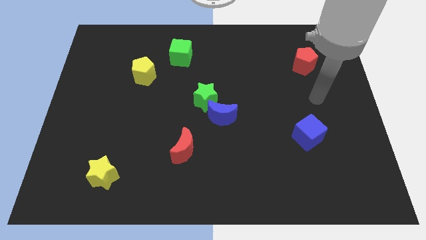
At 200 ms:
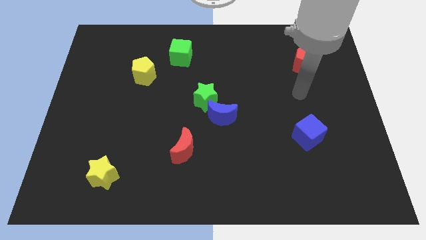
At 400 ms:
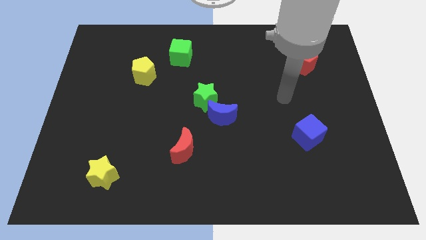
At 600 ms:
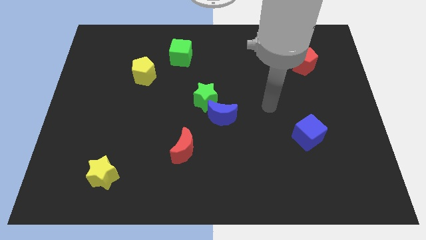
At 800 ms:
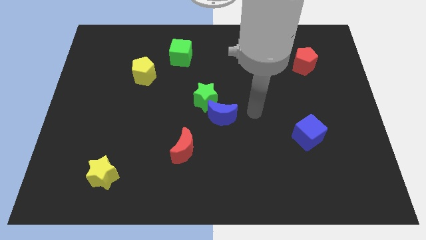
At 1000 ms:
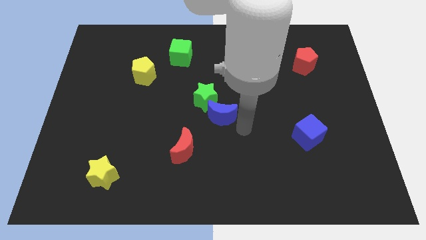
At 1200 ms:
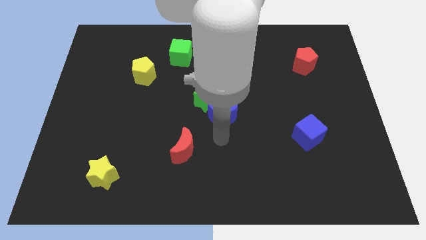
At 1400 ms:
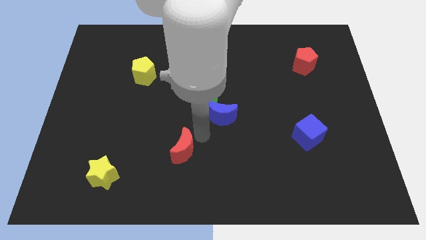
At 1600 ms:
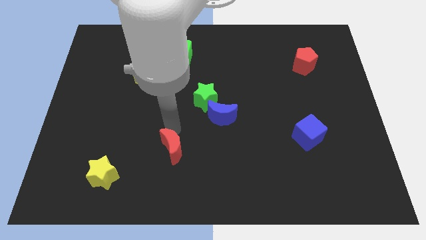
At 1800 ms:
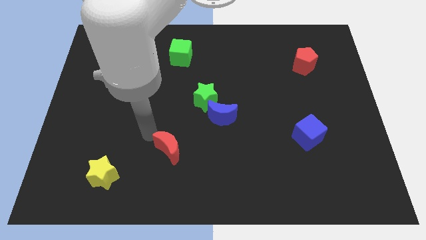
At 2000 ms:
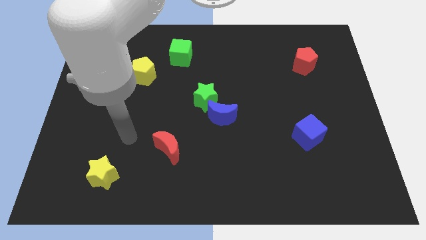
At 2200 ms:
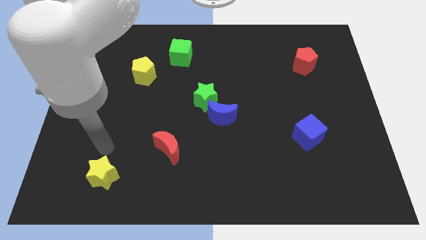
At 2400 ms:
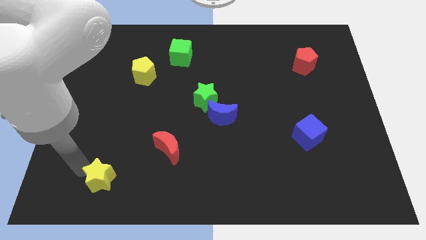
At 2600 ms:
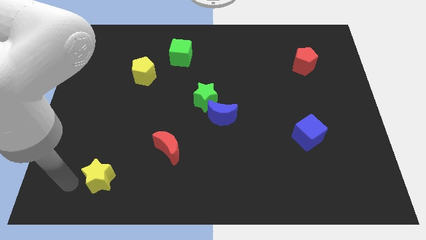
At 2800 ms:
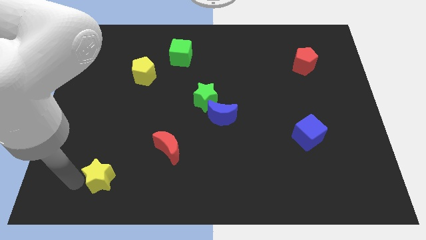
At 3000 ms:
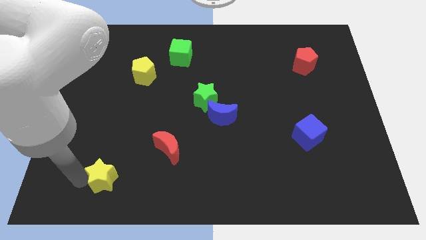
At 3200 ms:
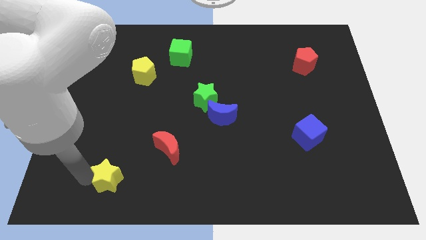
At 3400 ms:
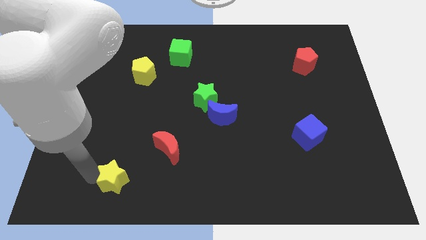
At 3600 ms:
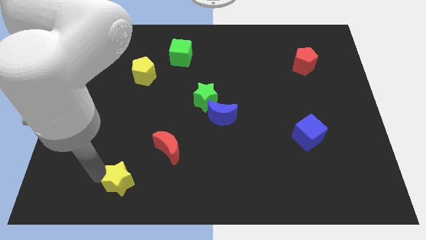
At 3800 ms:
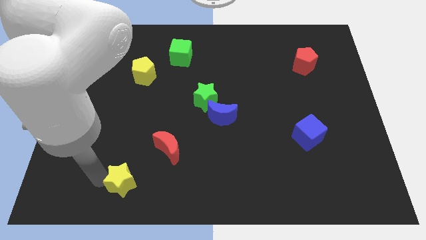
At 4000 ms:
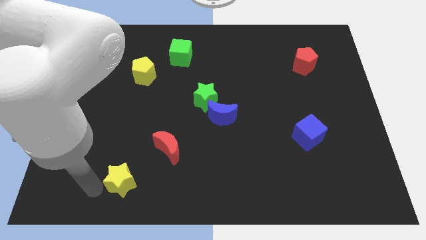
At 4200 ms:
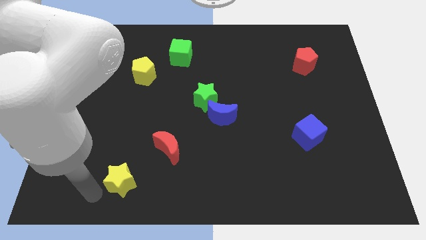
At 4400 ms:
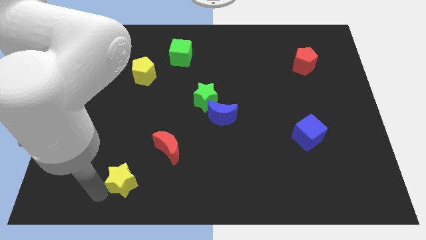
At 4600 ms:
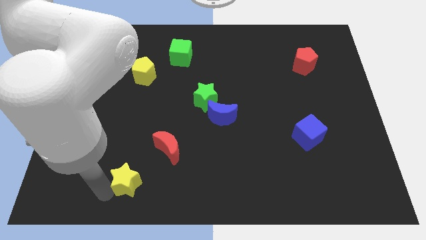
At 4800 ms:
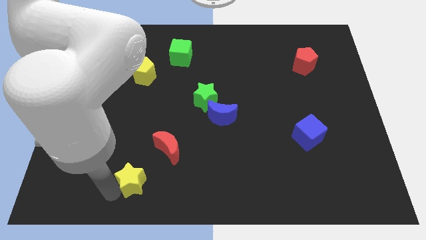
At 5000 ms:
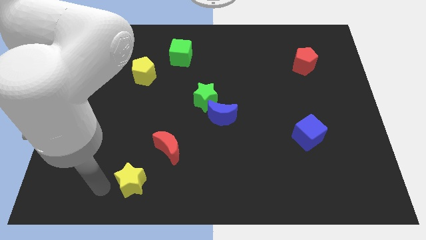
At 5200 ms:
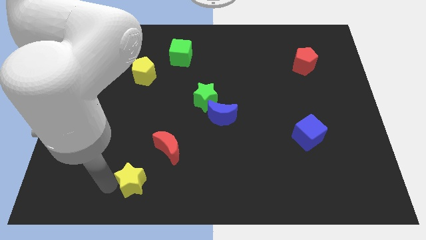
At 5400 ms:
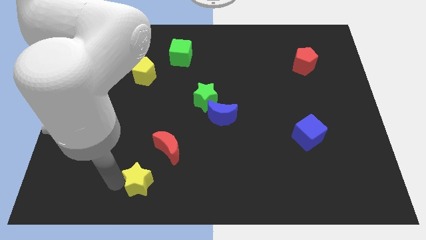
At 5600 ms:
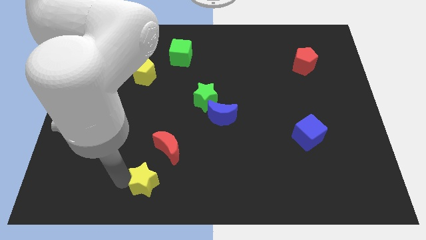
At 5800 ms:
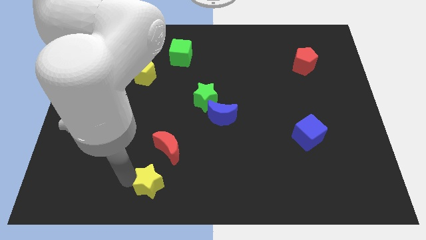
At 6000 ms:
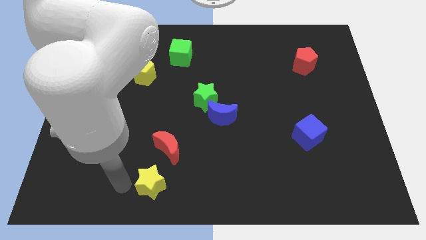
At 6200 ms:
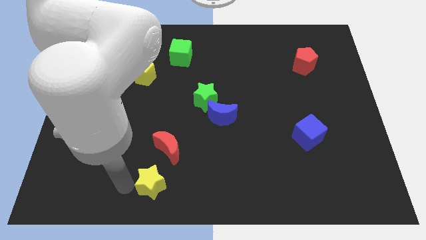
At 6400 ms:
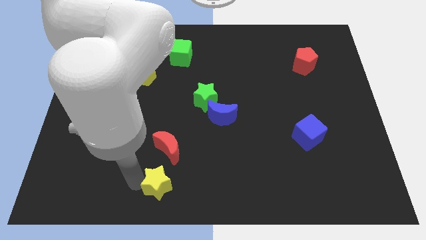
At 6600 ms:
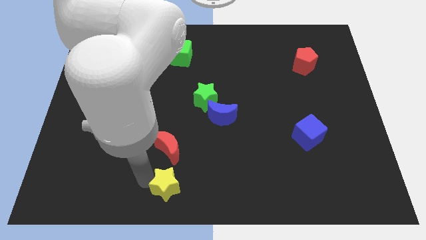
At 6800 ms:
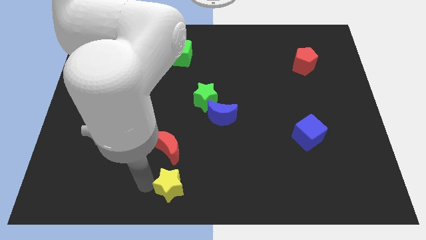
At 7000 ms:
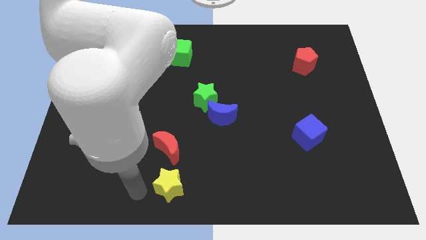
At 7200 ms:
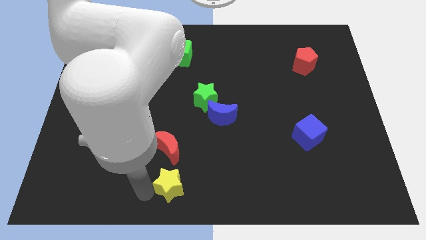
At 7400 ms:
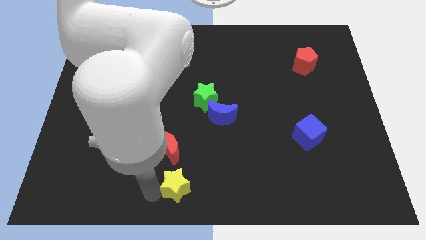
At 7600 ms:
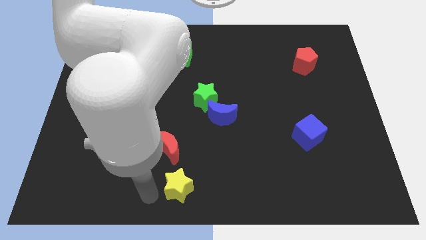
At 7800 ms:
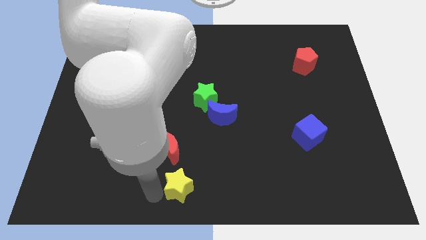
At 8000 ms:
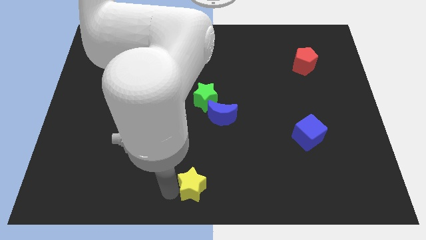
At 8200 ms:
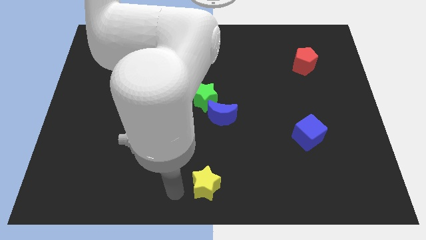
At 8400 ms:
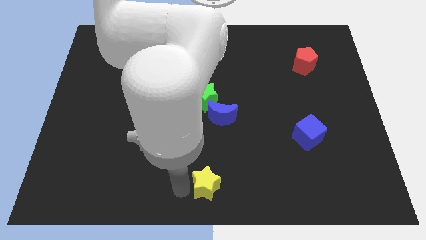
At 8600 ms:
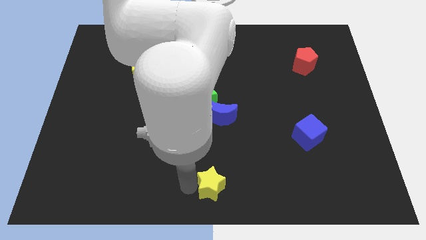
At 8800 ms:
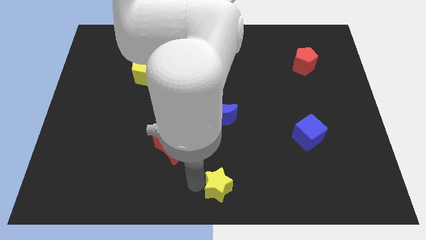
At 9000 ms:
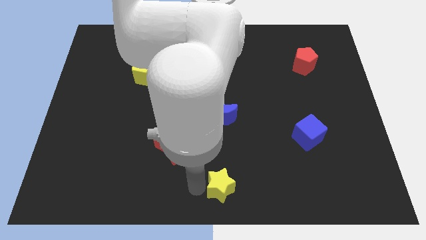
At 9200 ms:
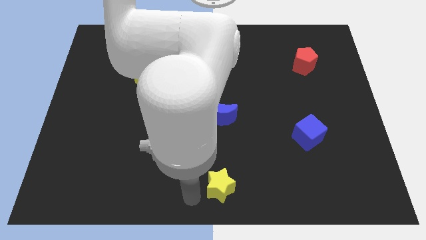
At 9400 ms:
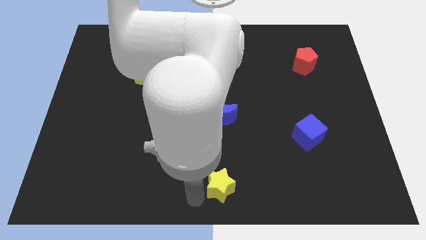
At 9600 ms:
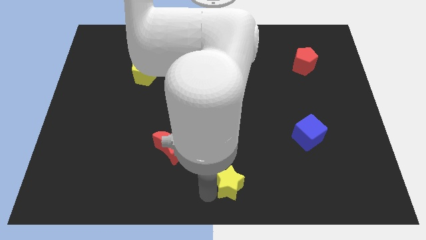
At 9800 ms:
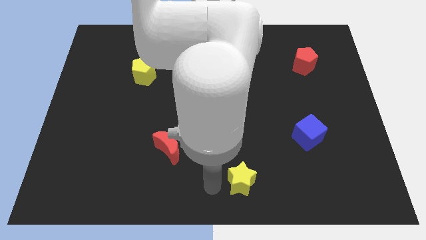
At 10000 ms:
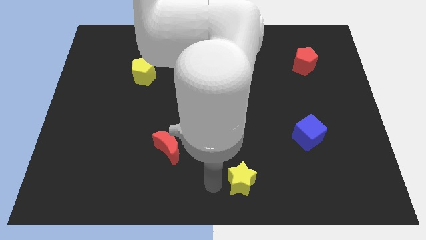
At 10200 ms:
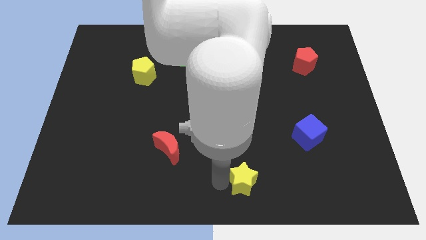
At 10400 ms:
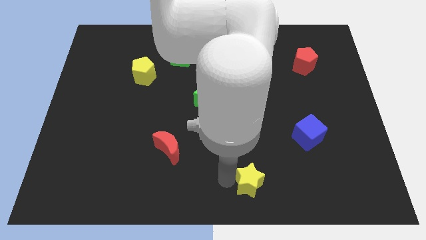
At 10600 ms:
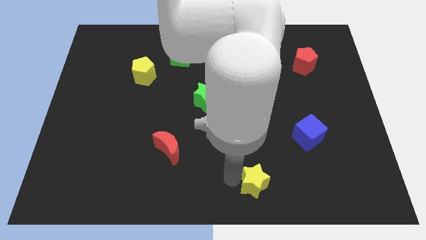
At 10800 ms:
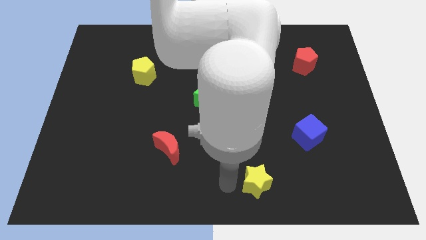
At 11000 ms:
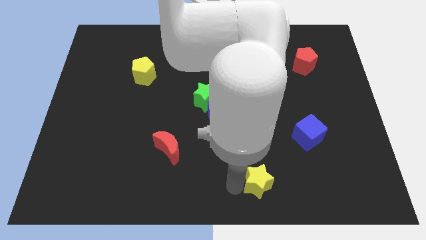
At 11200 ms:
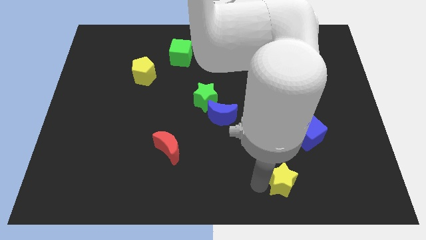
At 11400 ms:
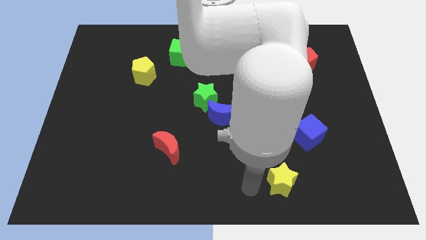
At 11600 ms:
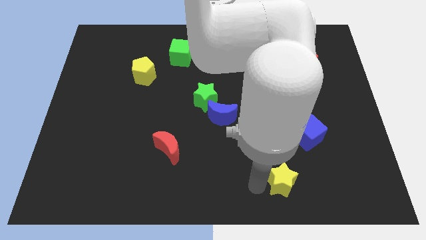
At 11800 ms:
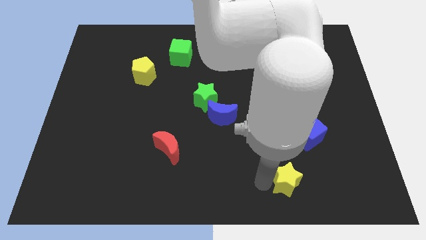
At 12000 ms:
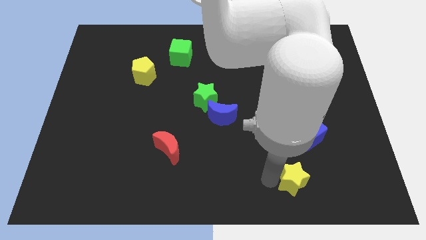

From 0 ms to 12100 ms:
move the yellow star below the blue cube
